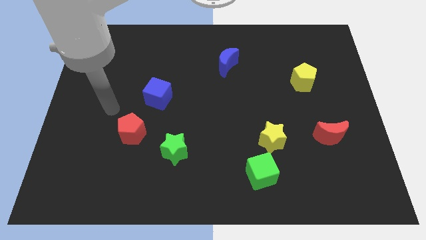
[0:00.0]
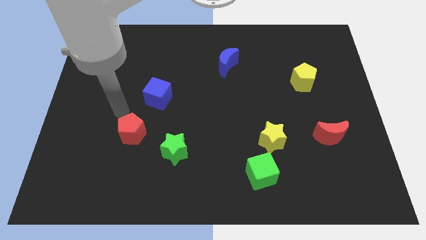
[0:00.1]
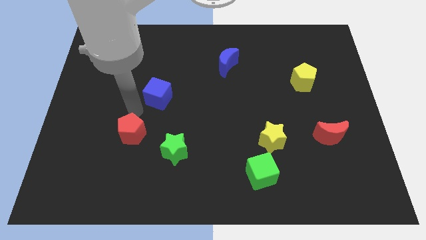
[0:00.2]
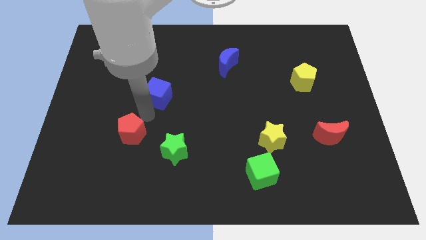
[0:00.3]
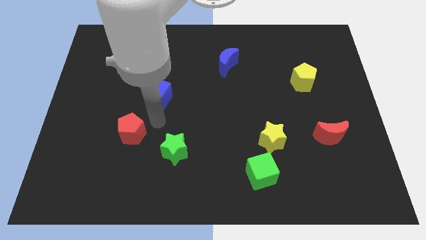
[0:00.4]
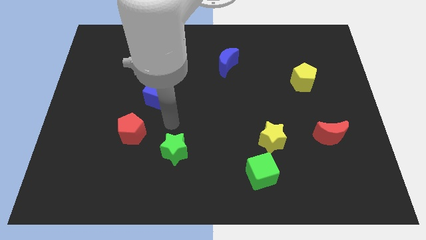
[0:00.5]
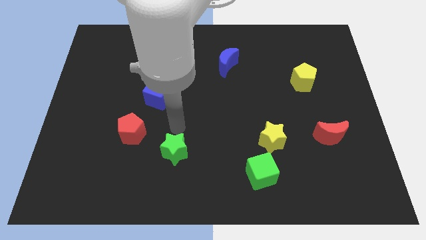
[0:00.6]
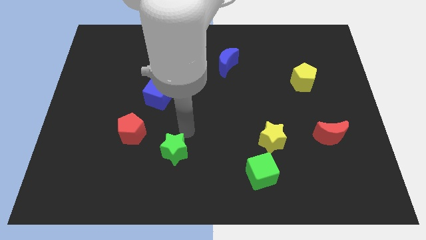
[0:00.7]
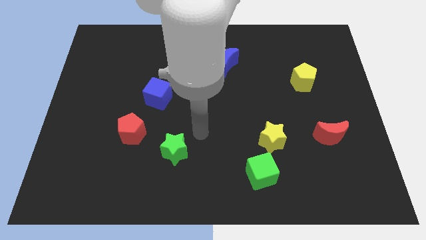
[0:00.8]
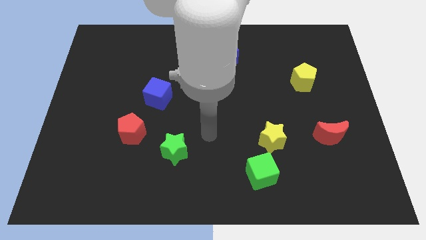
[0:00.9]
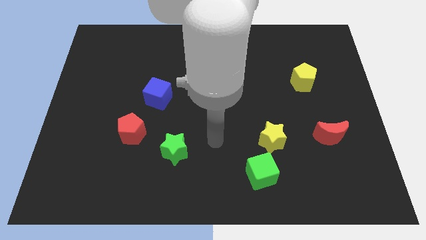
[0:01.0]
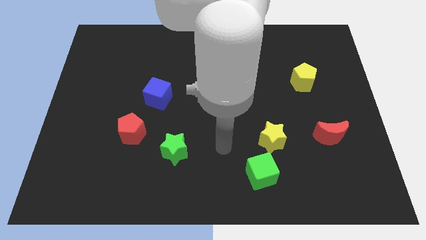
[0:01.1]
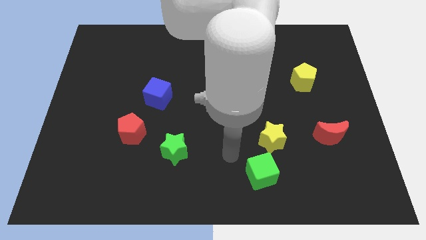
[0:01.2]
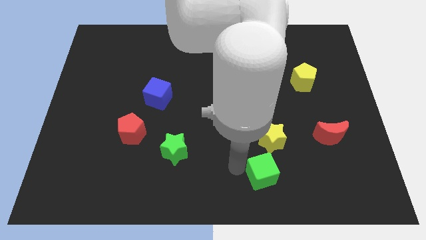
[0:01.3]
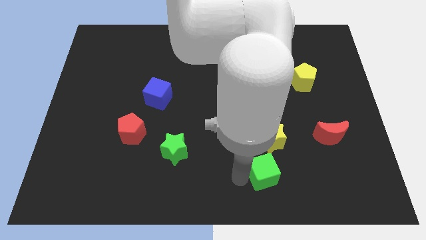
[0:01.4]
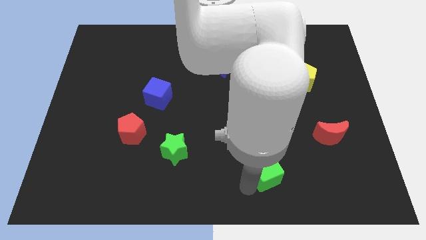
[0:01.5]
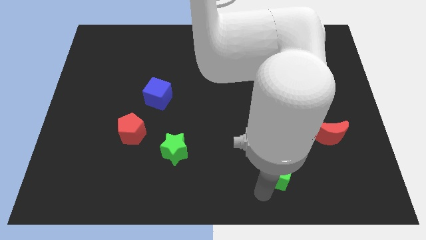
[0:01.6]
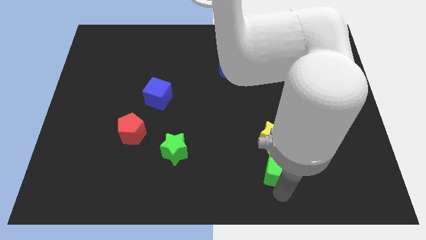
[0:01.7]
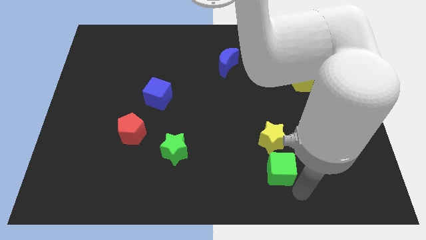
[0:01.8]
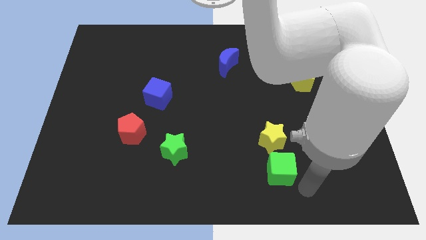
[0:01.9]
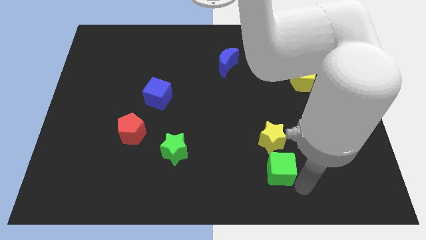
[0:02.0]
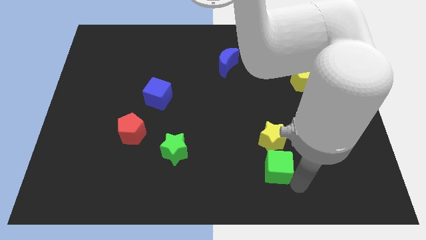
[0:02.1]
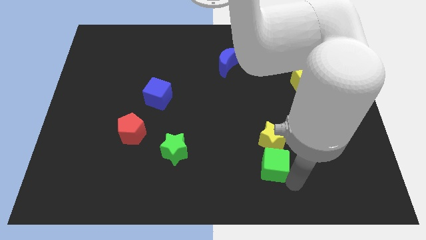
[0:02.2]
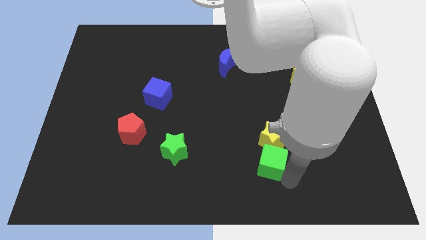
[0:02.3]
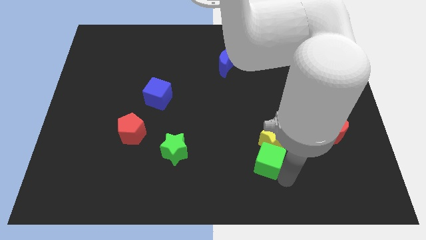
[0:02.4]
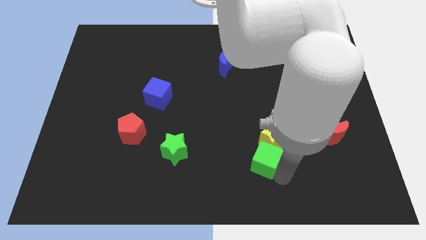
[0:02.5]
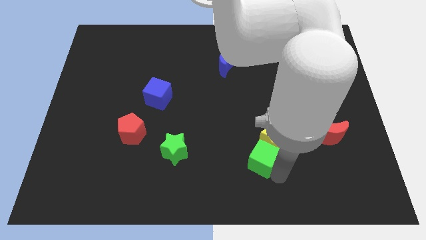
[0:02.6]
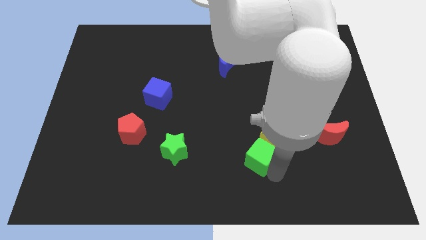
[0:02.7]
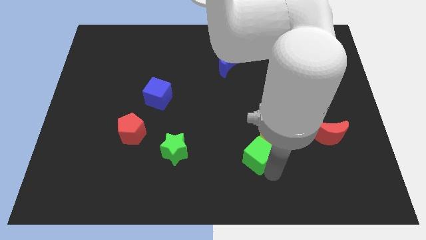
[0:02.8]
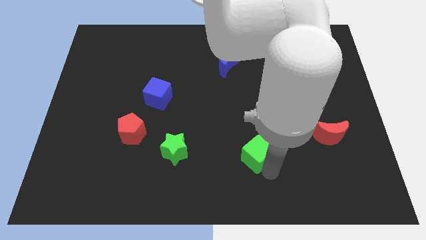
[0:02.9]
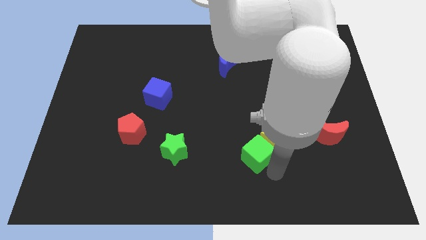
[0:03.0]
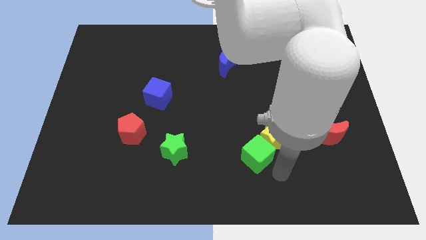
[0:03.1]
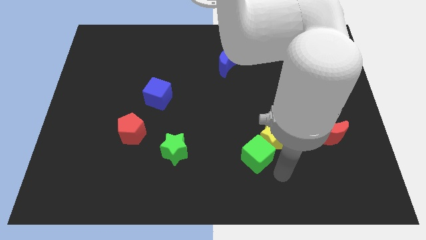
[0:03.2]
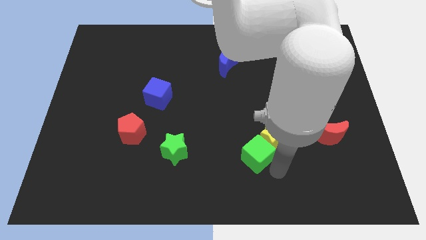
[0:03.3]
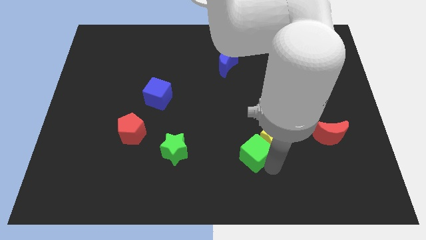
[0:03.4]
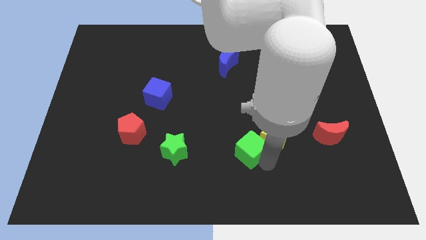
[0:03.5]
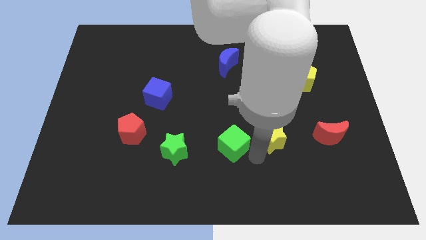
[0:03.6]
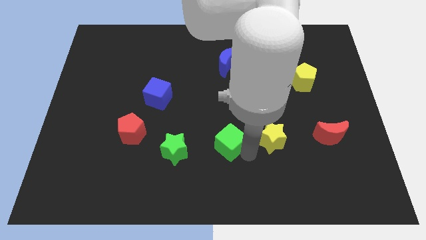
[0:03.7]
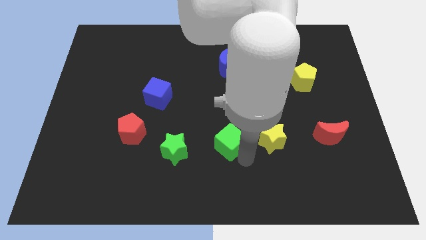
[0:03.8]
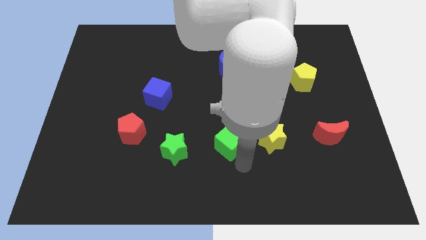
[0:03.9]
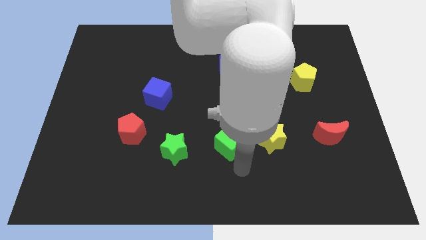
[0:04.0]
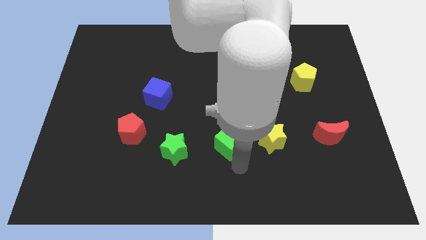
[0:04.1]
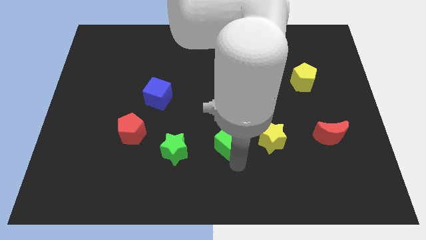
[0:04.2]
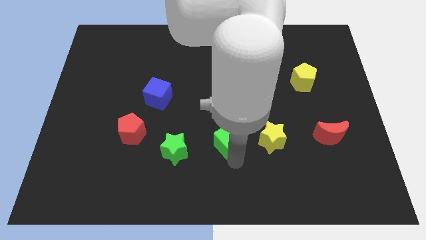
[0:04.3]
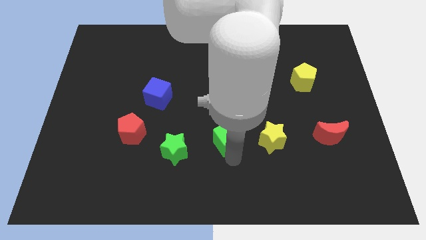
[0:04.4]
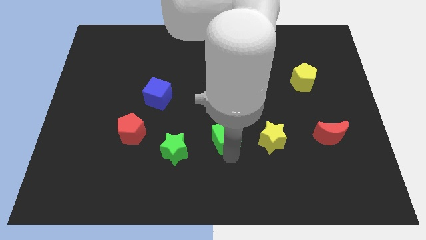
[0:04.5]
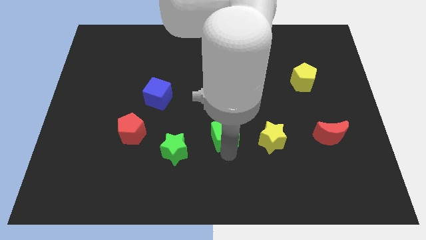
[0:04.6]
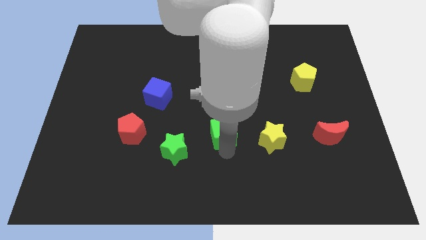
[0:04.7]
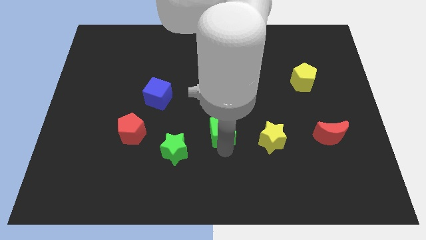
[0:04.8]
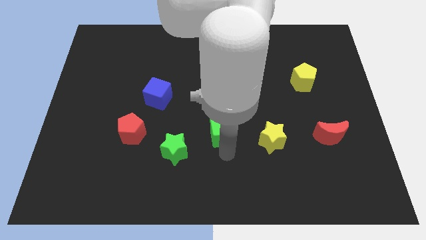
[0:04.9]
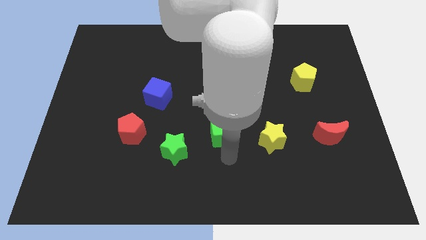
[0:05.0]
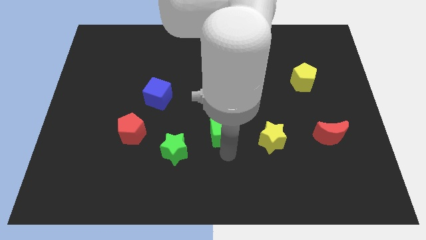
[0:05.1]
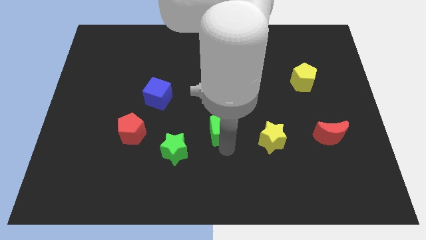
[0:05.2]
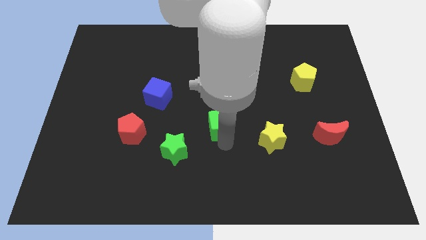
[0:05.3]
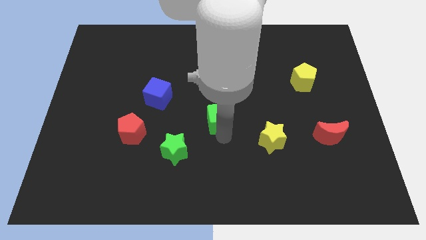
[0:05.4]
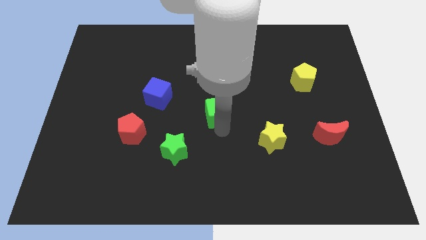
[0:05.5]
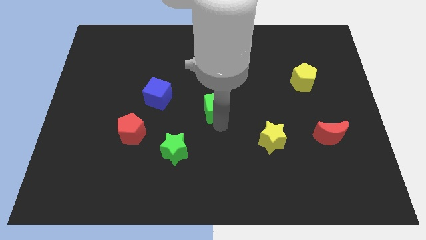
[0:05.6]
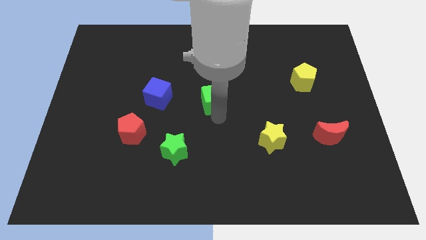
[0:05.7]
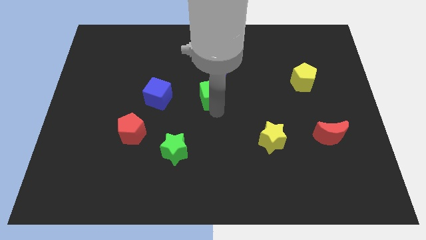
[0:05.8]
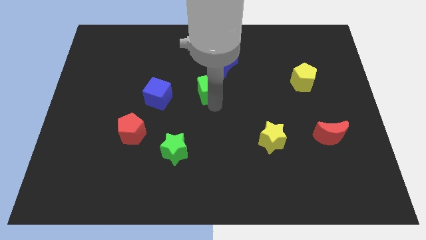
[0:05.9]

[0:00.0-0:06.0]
slide the green cube to the bottom left side of the blue moon

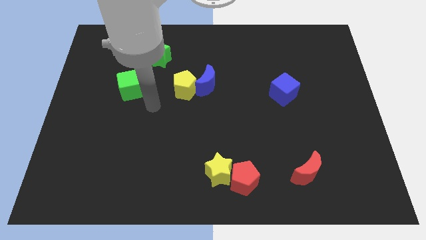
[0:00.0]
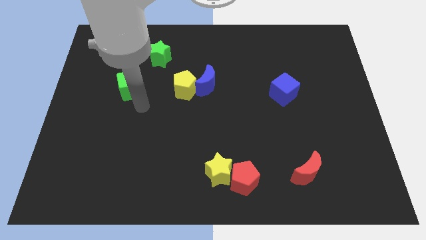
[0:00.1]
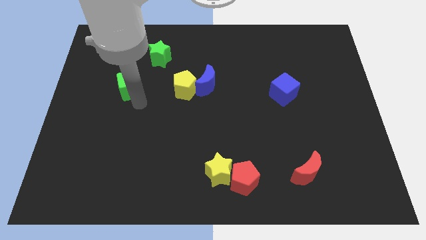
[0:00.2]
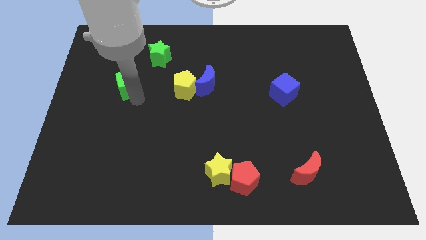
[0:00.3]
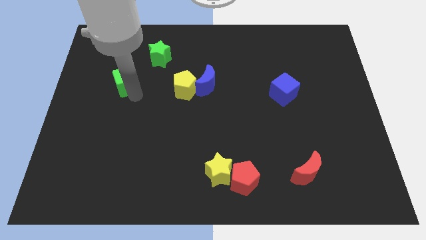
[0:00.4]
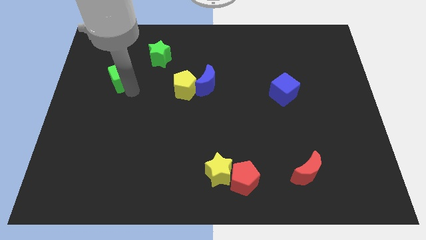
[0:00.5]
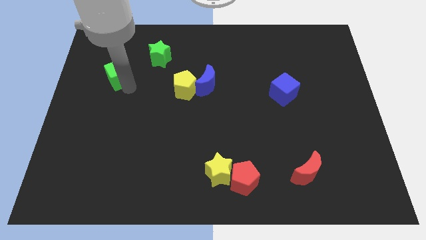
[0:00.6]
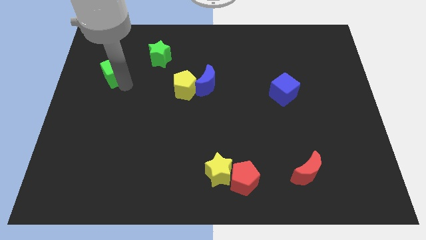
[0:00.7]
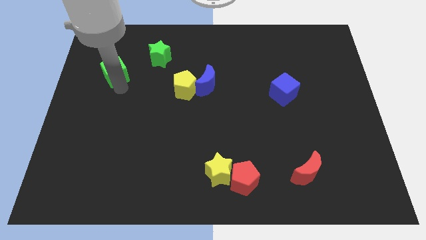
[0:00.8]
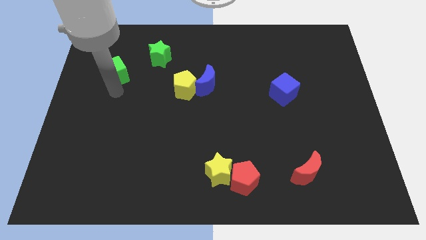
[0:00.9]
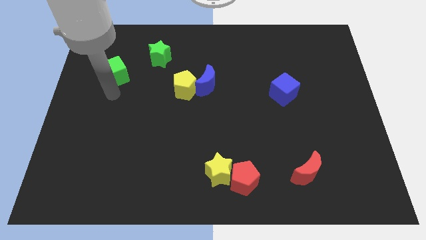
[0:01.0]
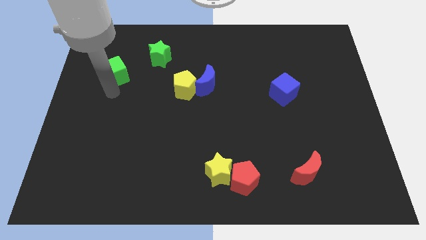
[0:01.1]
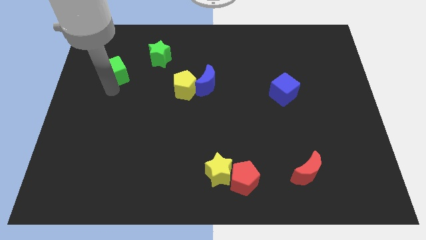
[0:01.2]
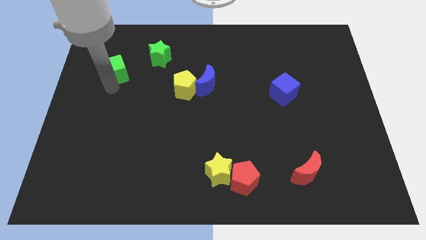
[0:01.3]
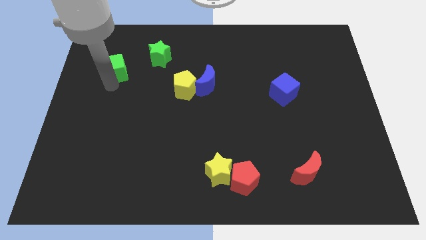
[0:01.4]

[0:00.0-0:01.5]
slide the green cube to the left of the green star

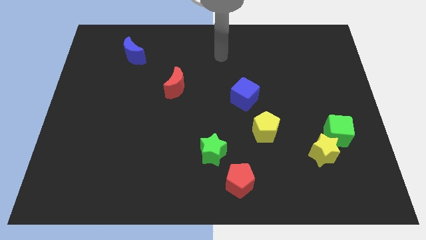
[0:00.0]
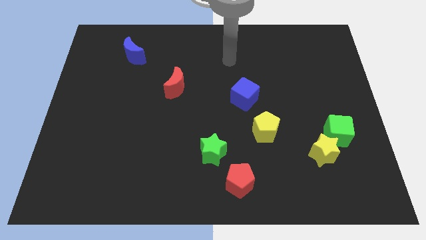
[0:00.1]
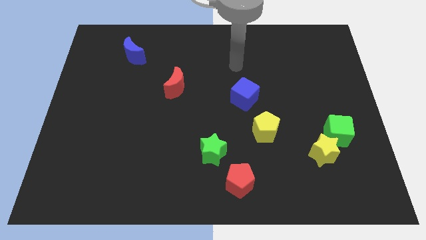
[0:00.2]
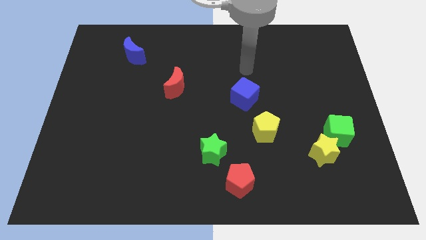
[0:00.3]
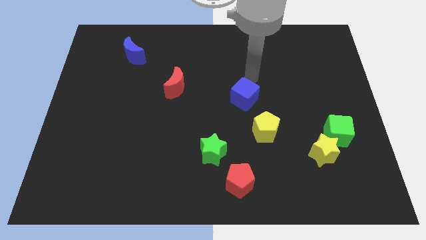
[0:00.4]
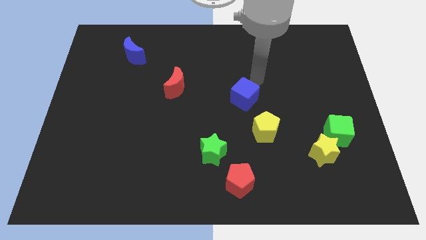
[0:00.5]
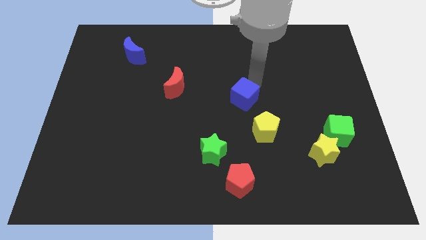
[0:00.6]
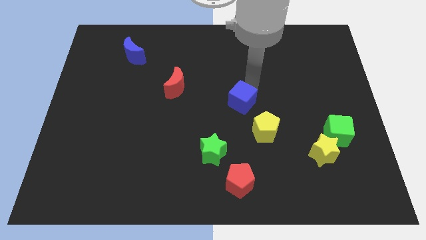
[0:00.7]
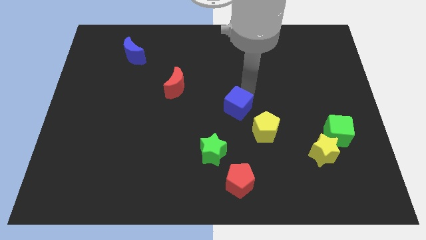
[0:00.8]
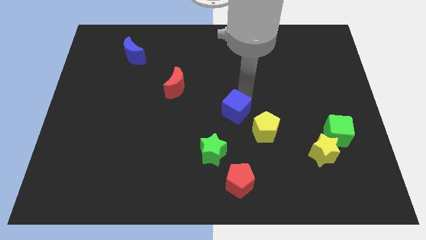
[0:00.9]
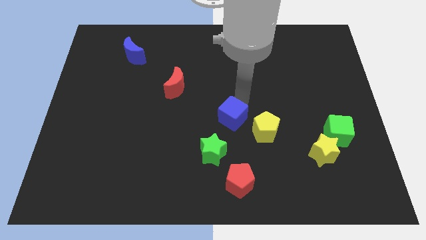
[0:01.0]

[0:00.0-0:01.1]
move the blue cube to the left side of the yellow pentagon
